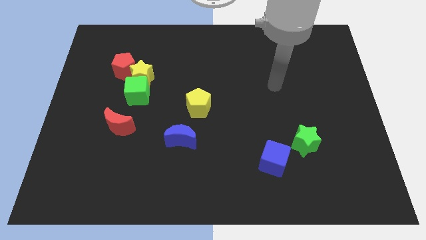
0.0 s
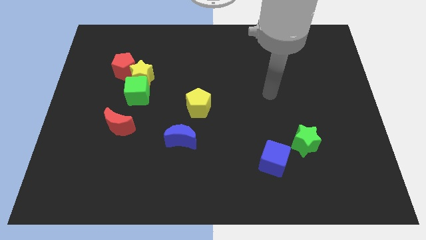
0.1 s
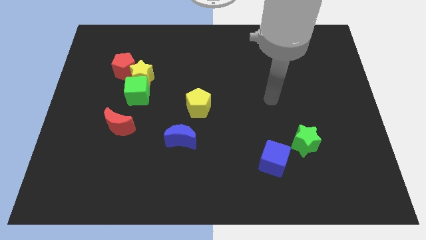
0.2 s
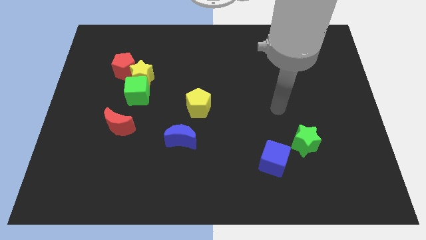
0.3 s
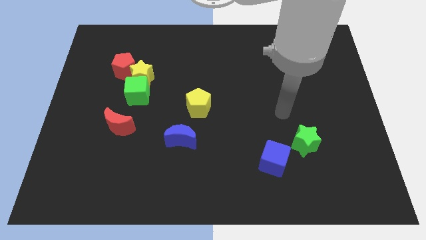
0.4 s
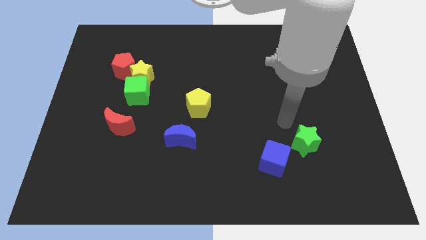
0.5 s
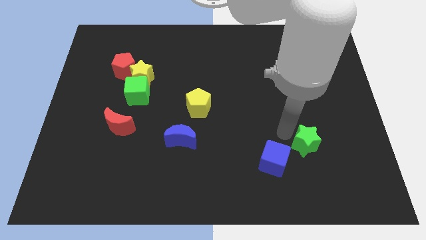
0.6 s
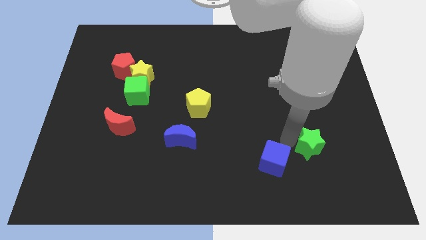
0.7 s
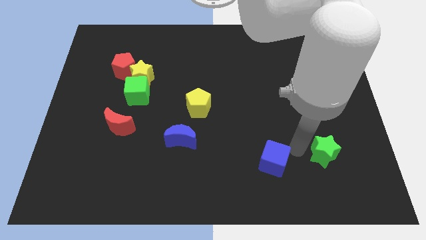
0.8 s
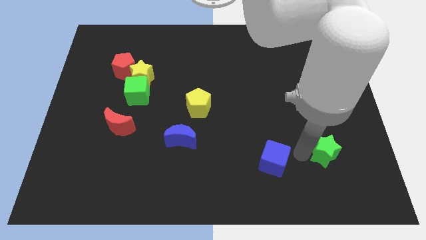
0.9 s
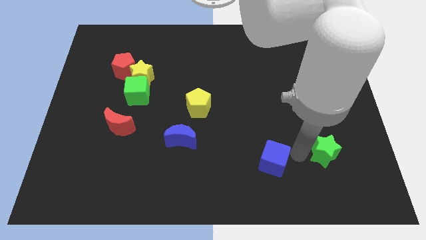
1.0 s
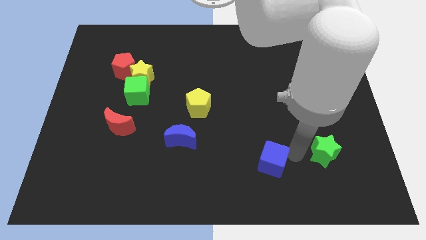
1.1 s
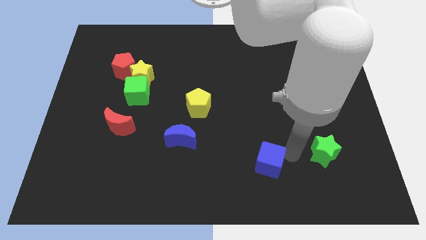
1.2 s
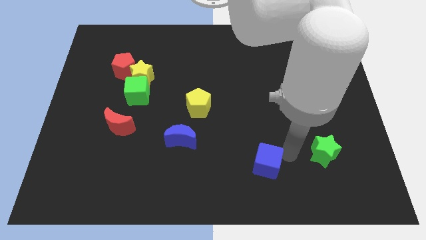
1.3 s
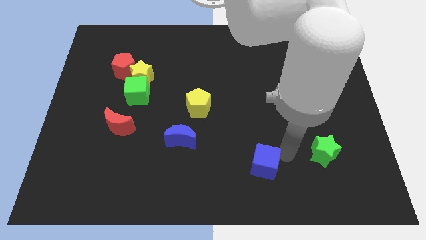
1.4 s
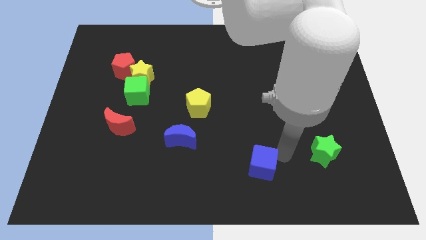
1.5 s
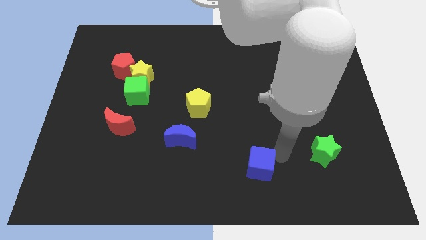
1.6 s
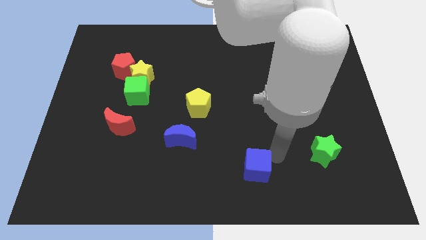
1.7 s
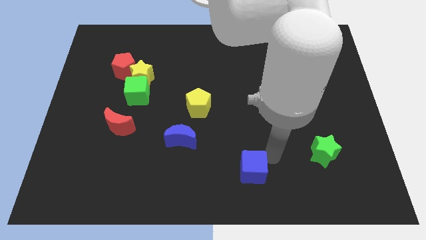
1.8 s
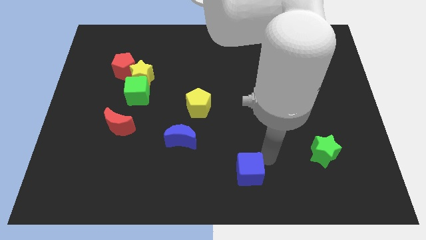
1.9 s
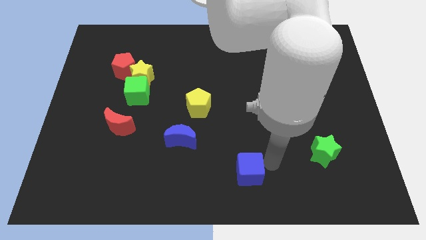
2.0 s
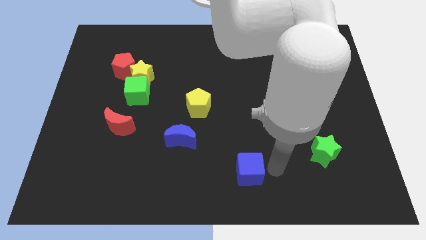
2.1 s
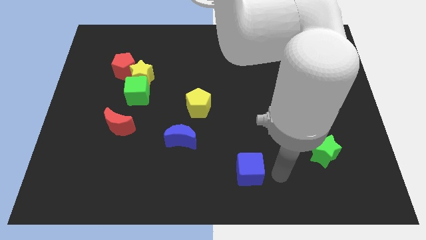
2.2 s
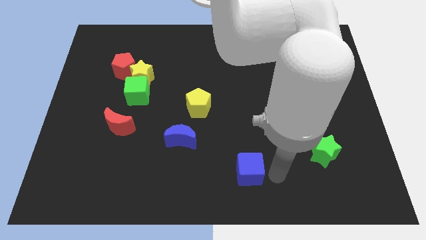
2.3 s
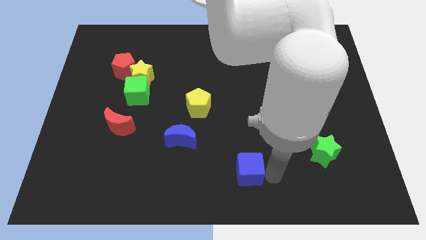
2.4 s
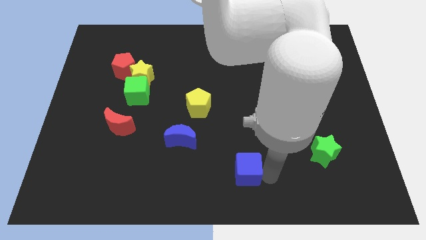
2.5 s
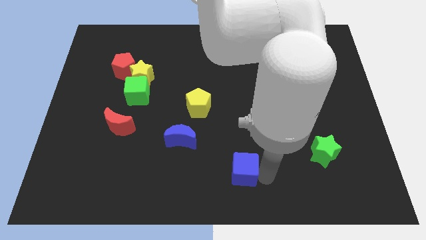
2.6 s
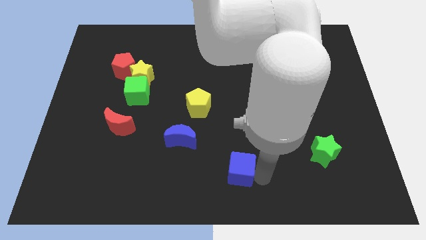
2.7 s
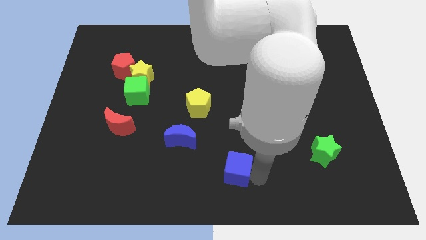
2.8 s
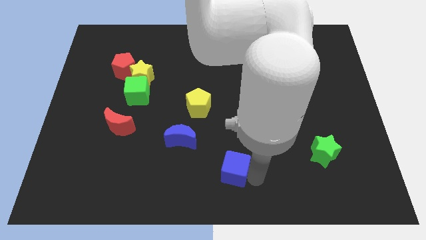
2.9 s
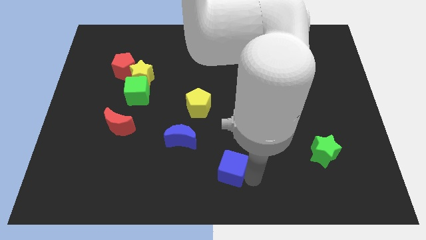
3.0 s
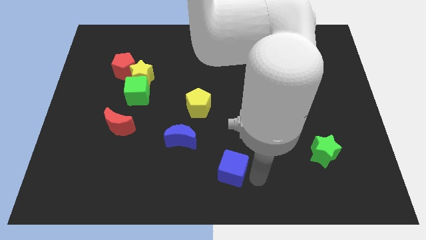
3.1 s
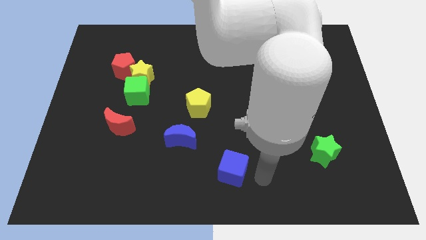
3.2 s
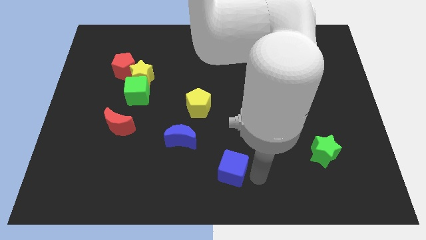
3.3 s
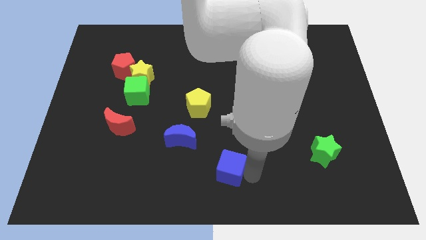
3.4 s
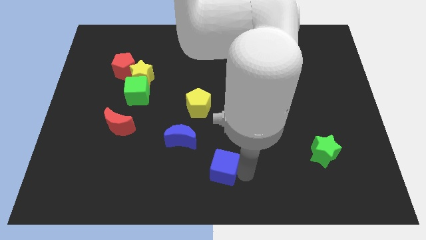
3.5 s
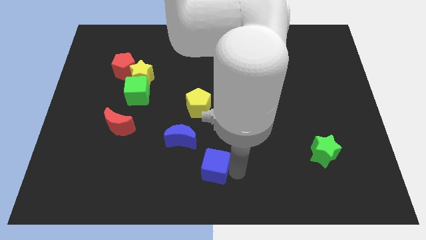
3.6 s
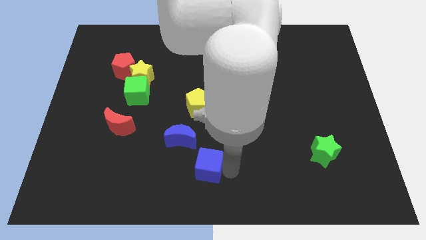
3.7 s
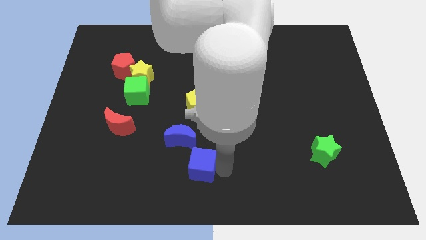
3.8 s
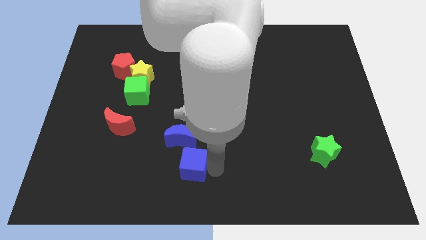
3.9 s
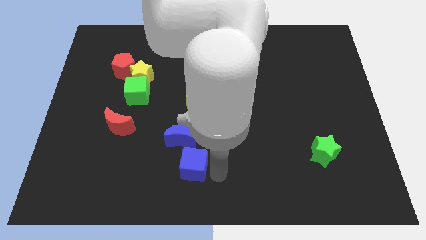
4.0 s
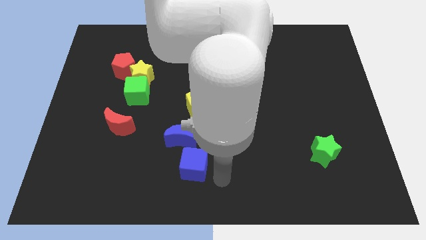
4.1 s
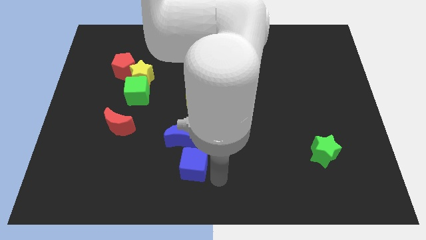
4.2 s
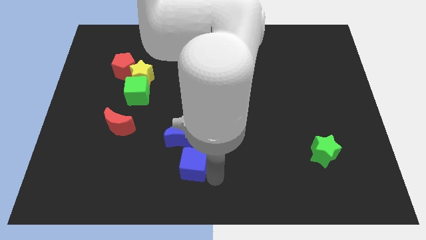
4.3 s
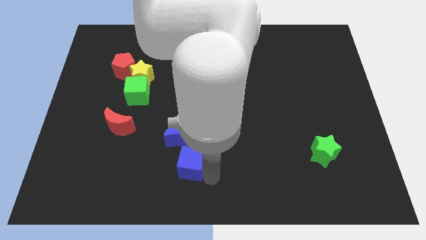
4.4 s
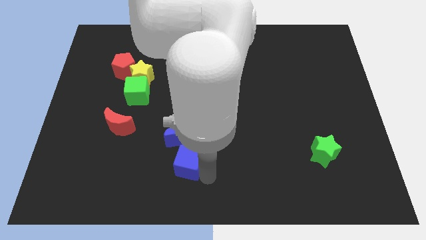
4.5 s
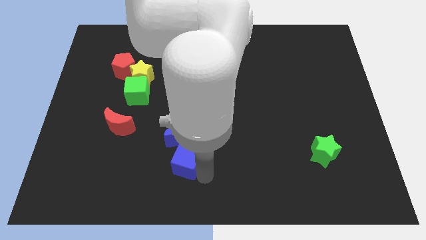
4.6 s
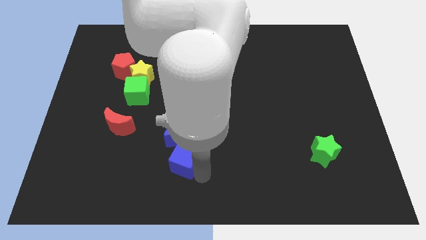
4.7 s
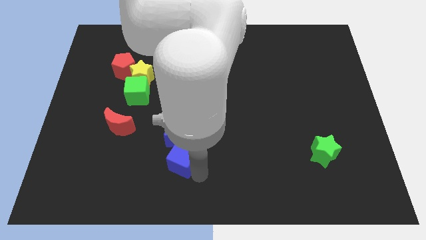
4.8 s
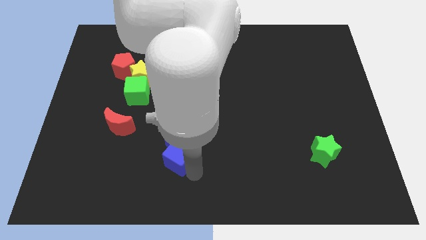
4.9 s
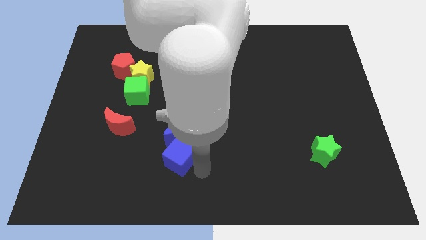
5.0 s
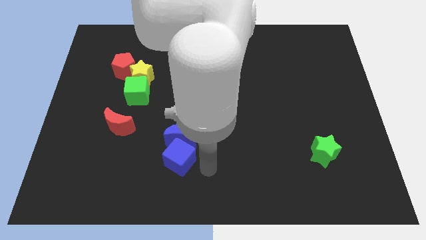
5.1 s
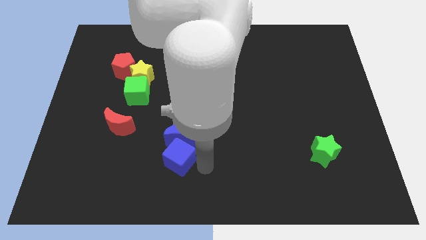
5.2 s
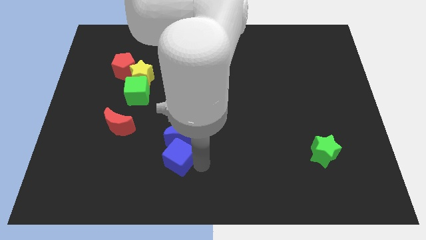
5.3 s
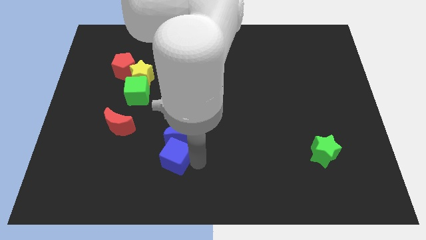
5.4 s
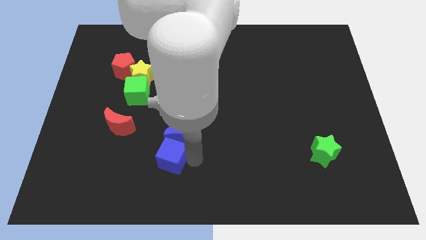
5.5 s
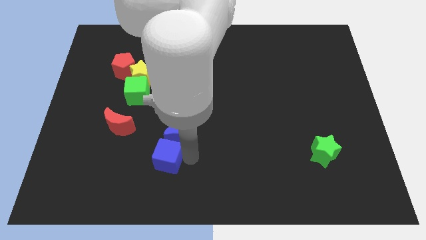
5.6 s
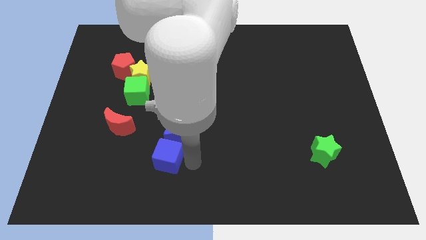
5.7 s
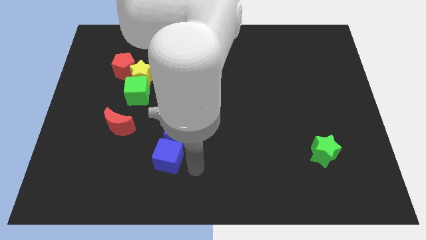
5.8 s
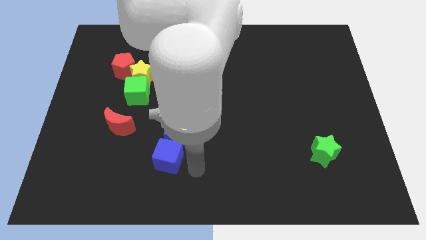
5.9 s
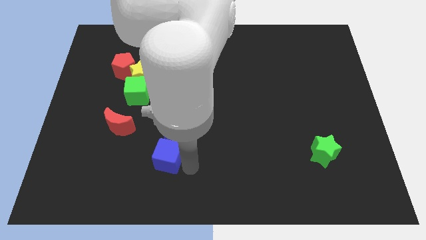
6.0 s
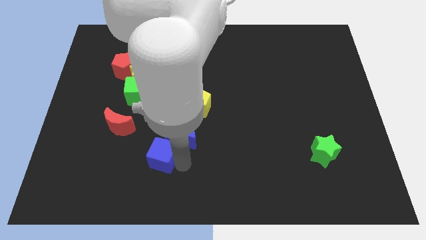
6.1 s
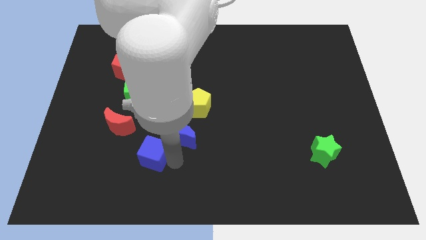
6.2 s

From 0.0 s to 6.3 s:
put the blue cube diagonally down and to the right of the red moon

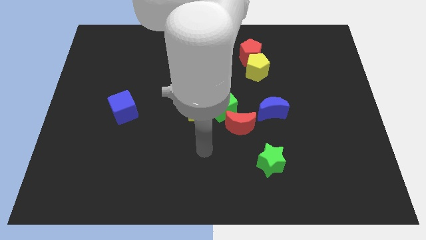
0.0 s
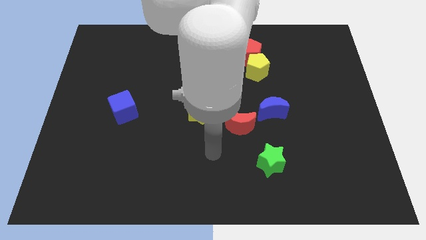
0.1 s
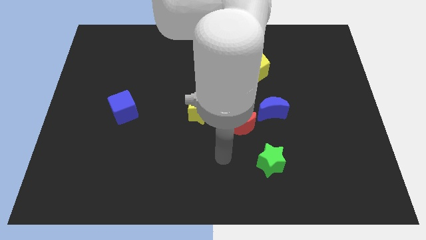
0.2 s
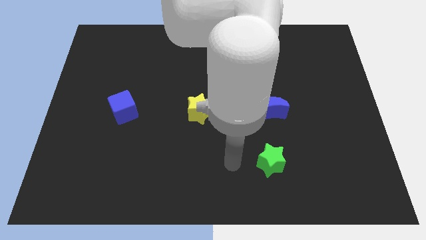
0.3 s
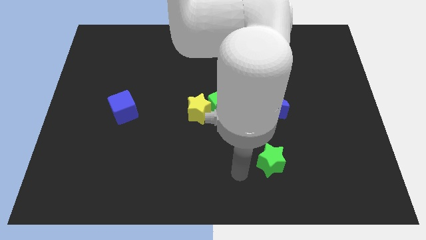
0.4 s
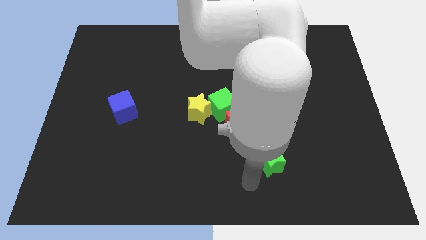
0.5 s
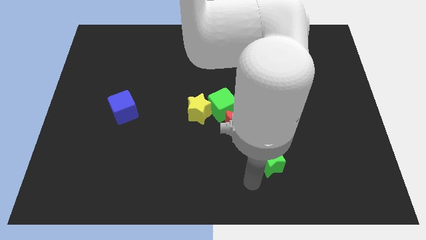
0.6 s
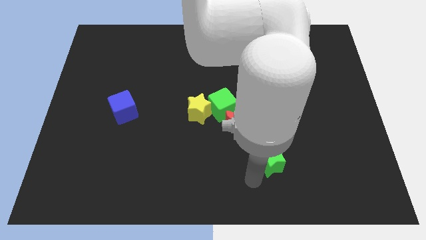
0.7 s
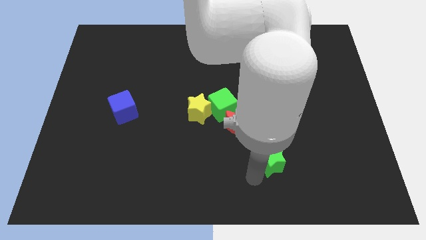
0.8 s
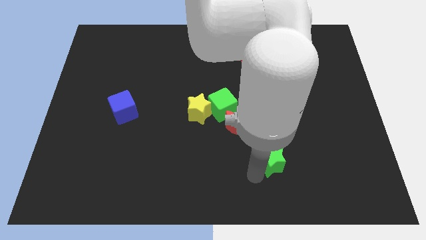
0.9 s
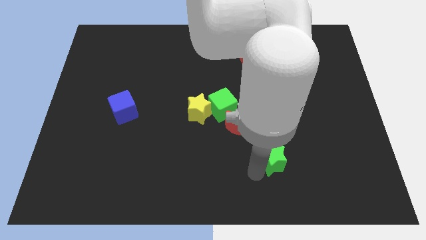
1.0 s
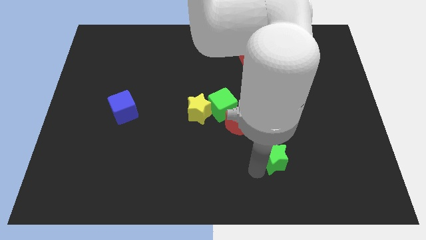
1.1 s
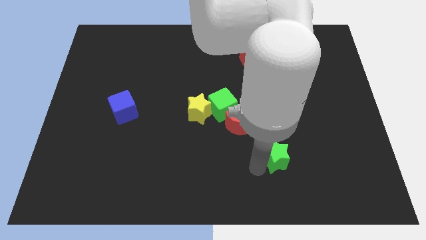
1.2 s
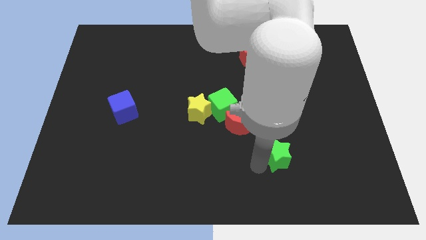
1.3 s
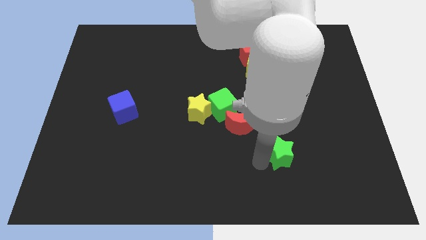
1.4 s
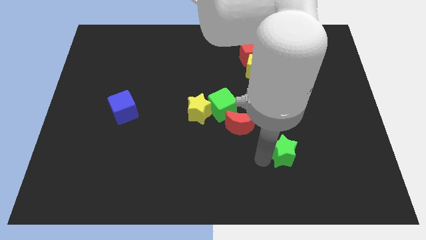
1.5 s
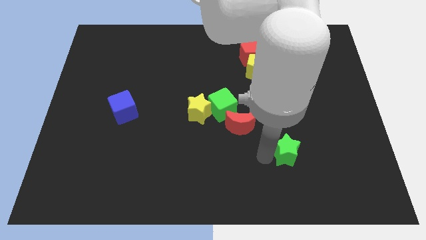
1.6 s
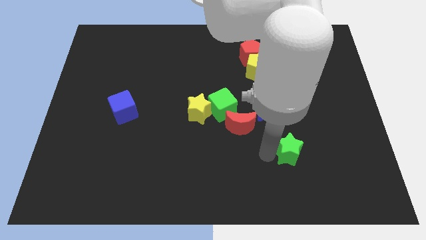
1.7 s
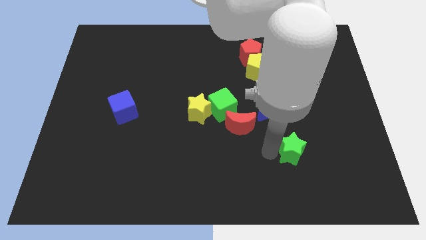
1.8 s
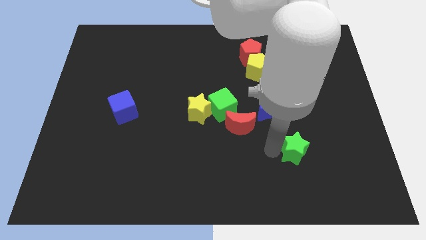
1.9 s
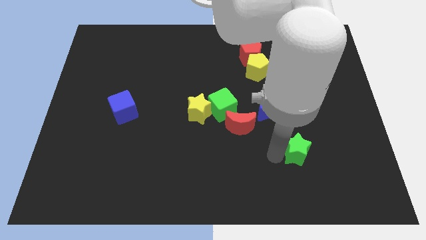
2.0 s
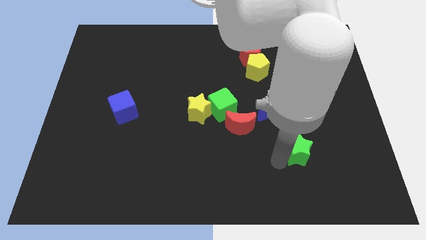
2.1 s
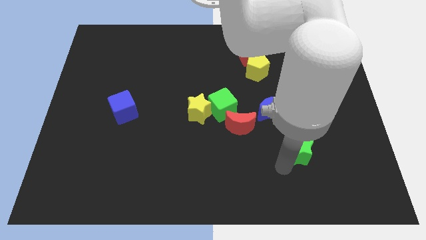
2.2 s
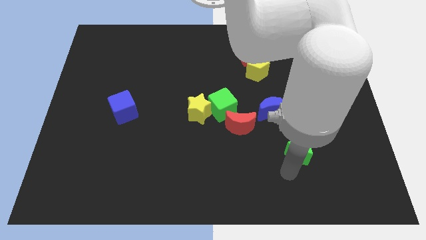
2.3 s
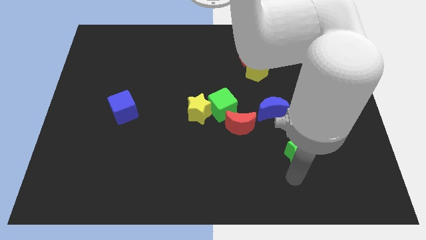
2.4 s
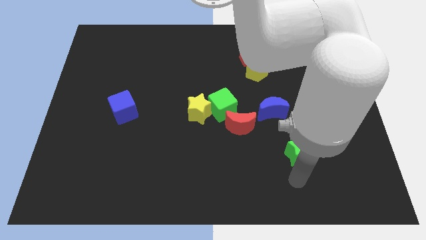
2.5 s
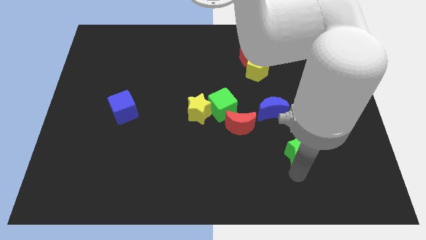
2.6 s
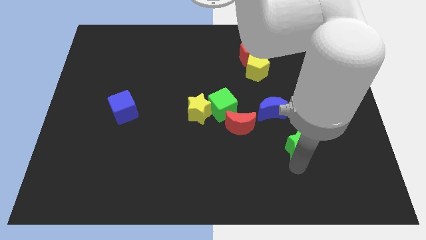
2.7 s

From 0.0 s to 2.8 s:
push the green star to the bottom right side of the blue moon
